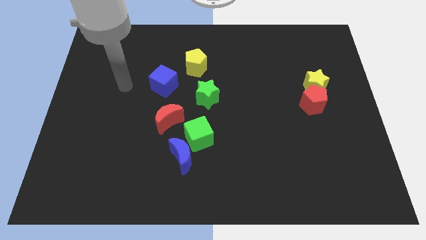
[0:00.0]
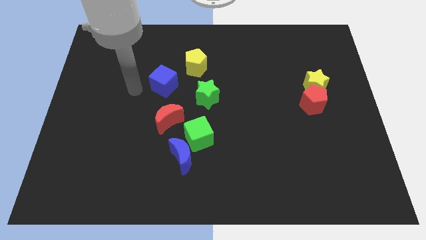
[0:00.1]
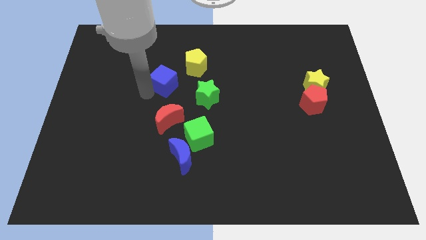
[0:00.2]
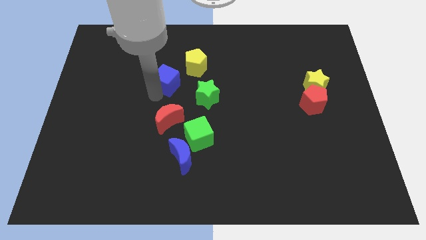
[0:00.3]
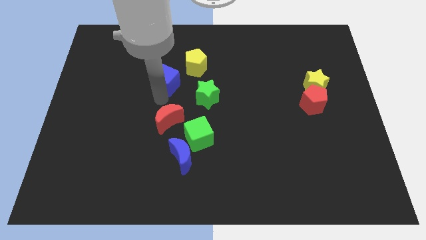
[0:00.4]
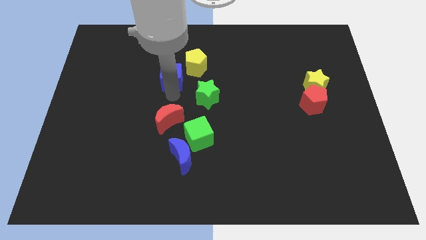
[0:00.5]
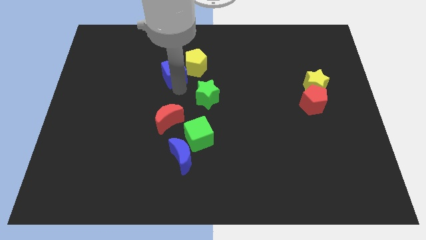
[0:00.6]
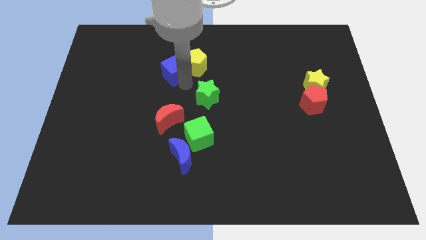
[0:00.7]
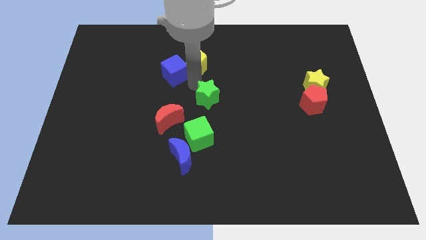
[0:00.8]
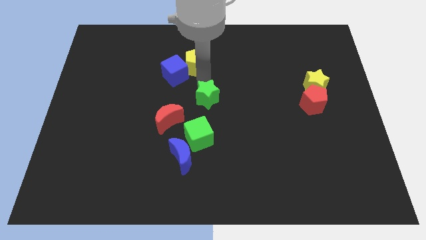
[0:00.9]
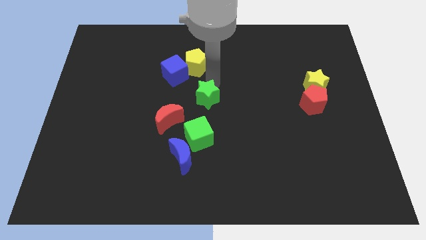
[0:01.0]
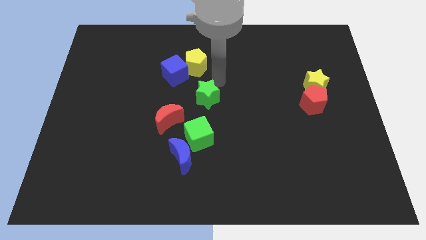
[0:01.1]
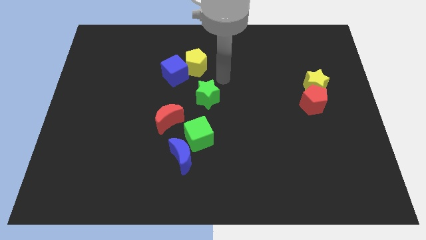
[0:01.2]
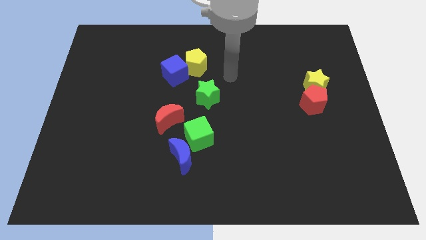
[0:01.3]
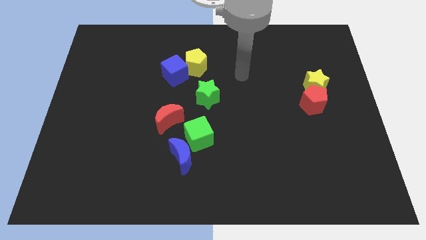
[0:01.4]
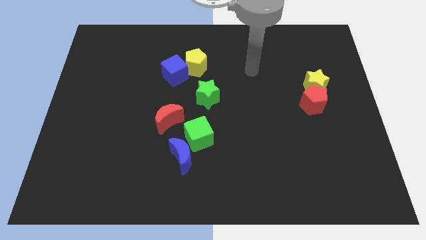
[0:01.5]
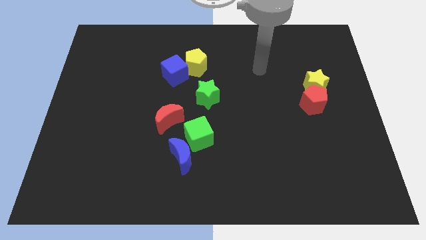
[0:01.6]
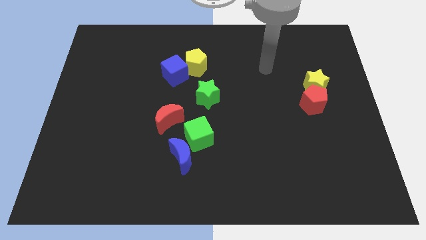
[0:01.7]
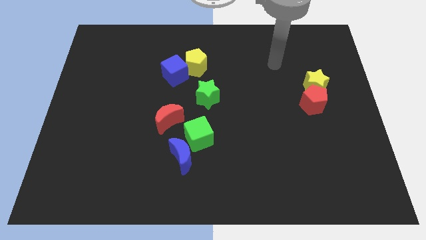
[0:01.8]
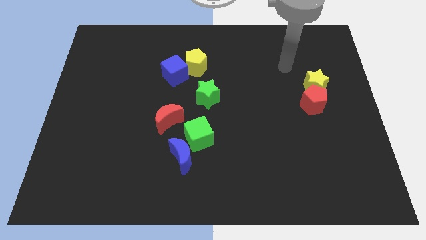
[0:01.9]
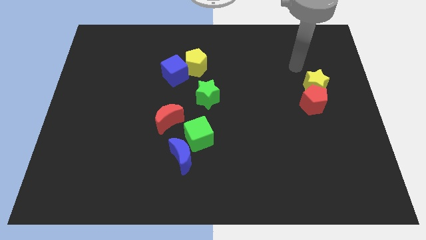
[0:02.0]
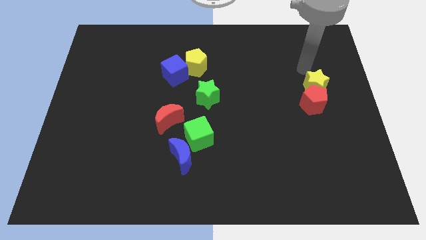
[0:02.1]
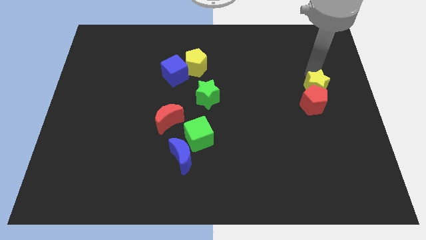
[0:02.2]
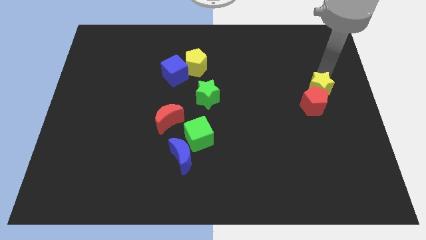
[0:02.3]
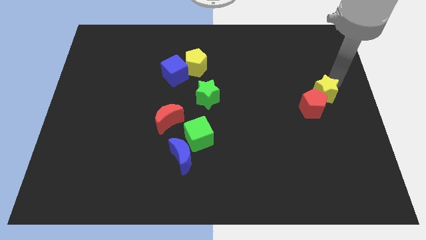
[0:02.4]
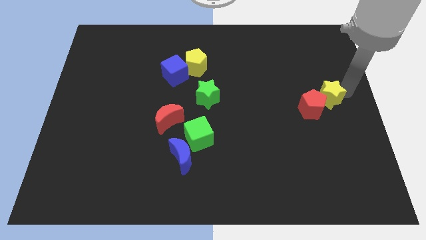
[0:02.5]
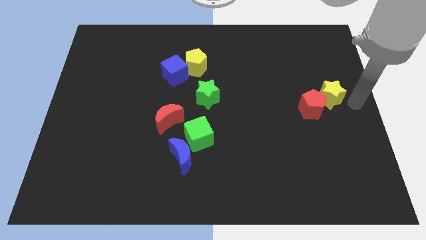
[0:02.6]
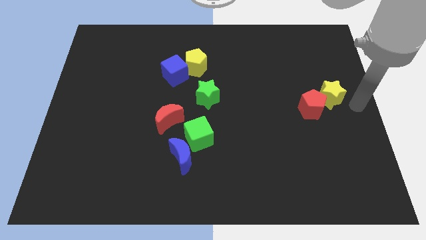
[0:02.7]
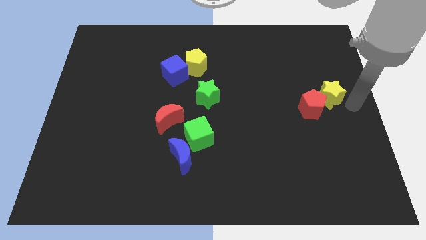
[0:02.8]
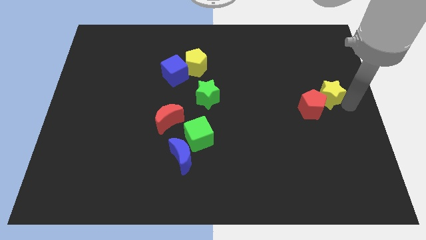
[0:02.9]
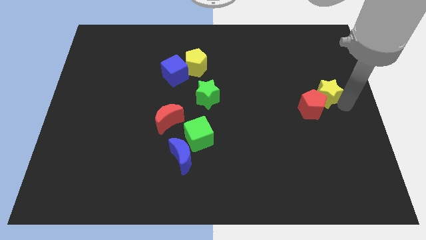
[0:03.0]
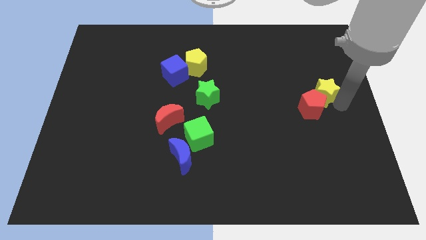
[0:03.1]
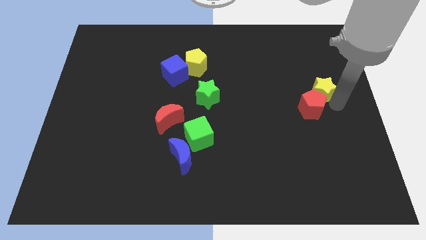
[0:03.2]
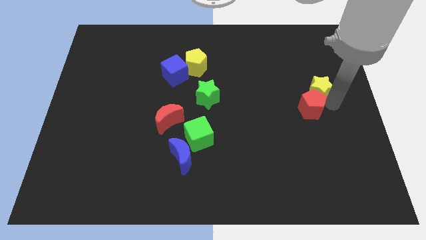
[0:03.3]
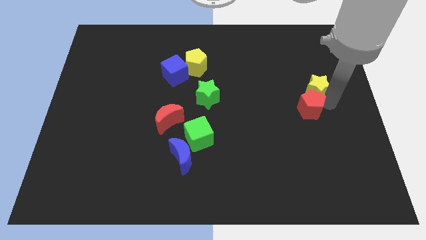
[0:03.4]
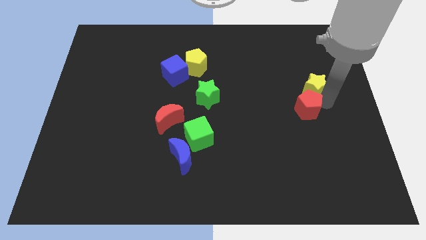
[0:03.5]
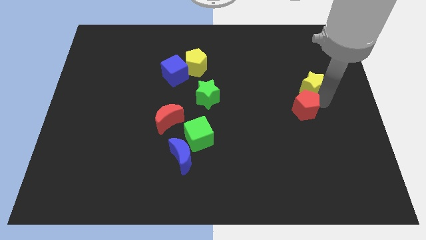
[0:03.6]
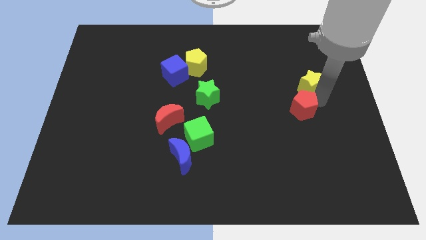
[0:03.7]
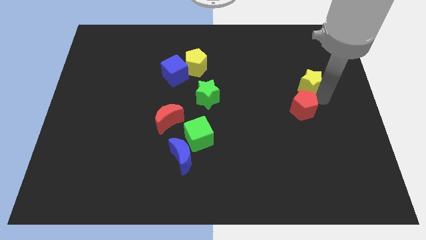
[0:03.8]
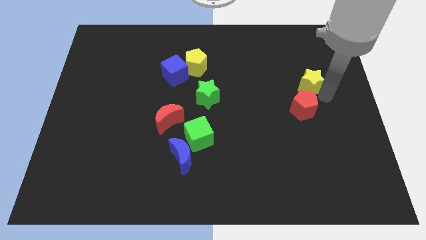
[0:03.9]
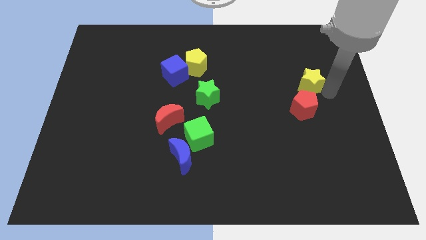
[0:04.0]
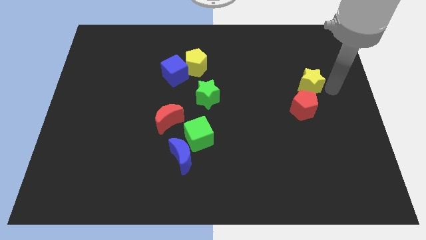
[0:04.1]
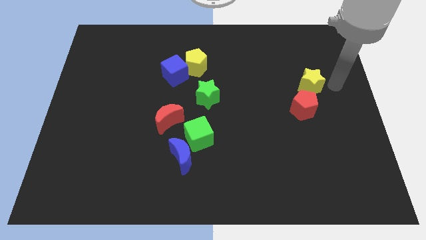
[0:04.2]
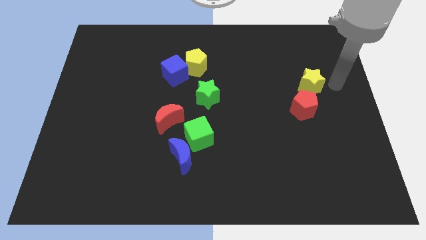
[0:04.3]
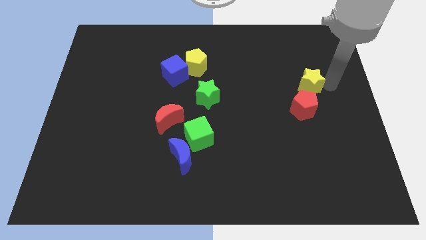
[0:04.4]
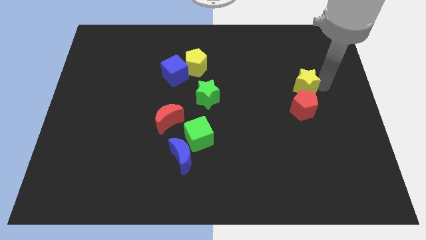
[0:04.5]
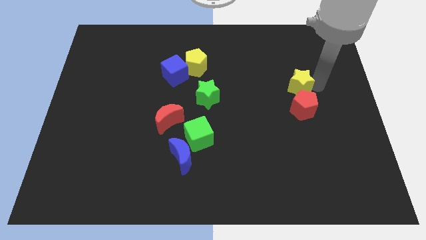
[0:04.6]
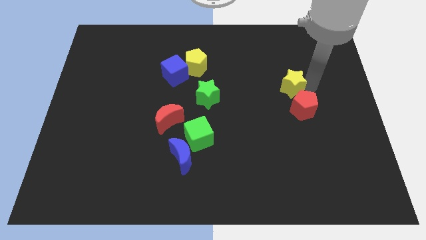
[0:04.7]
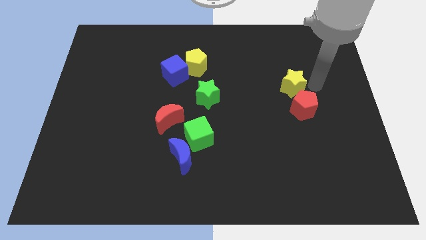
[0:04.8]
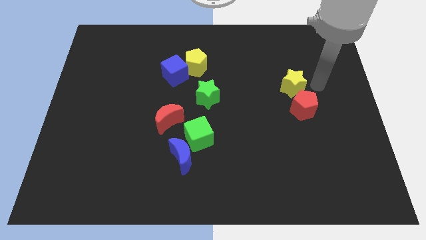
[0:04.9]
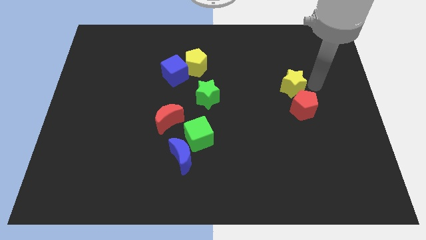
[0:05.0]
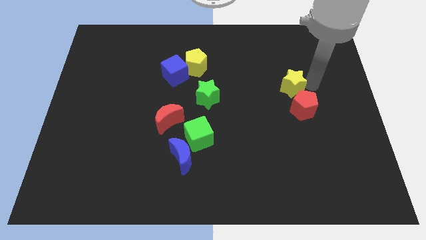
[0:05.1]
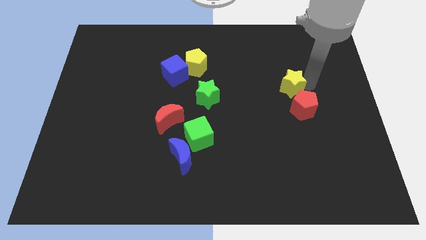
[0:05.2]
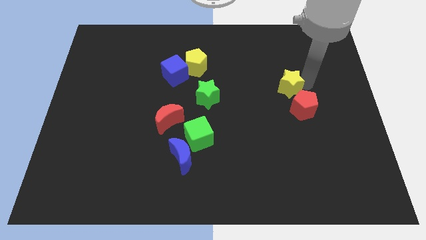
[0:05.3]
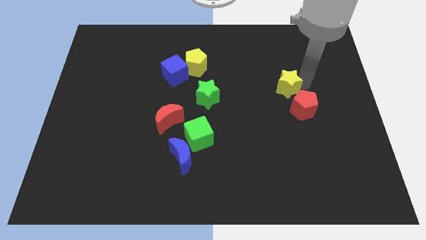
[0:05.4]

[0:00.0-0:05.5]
slightly push the yellow star to the left

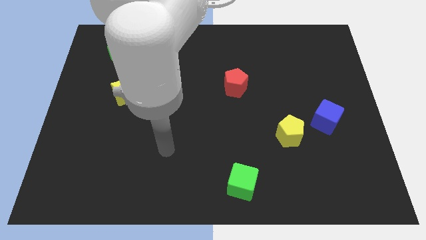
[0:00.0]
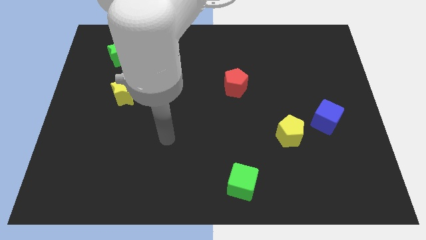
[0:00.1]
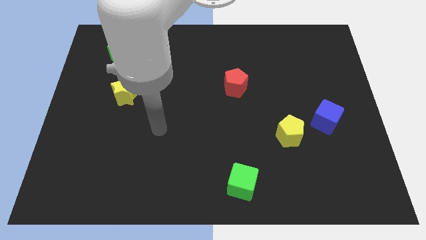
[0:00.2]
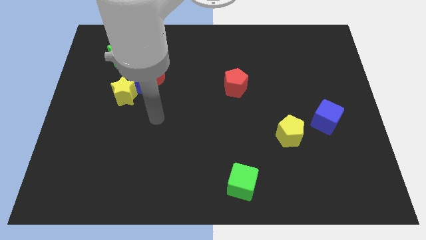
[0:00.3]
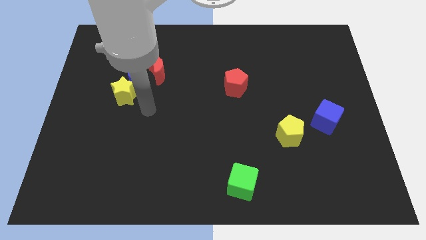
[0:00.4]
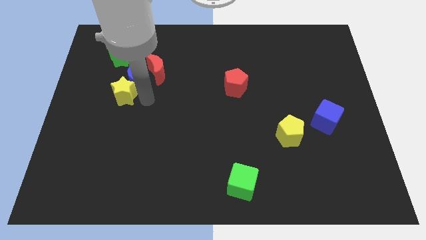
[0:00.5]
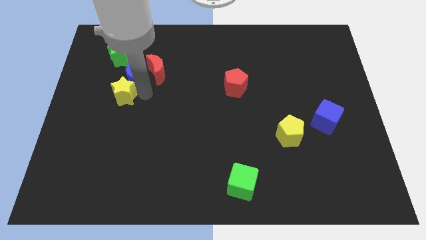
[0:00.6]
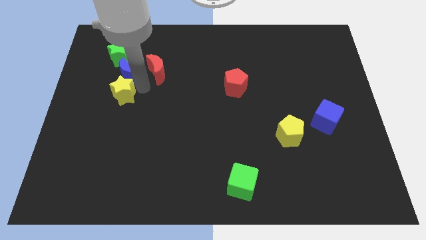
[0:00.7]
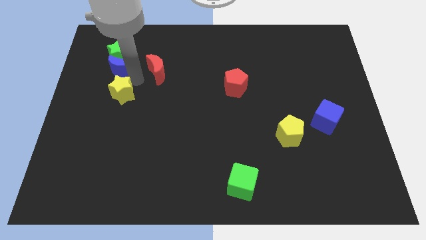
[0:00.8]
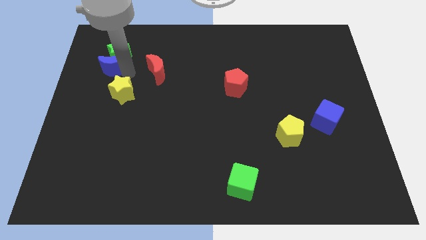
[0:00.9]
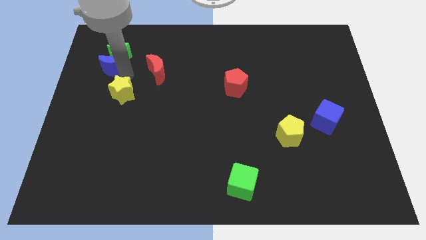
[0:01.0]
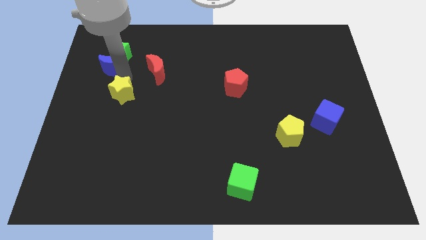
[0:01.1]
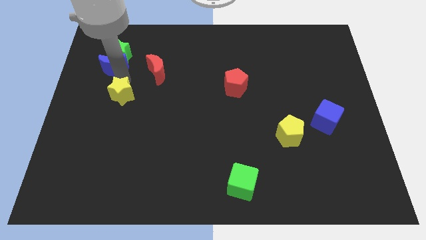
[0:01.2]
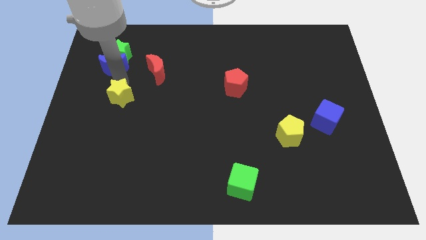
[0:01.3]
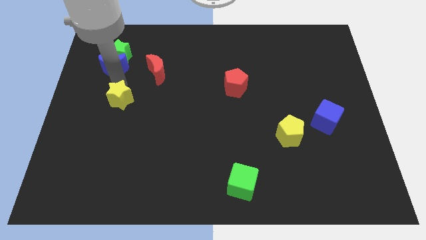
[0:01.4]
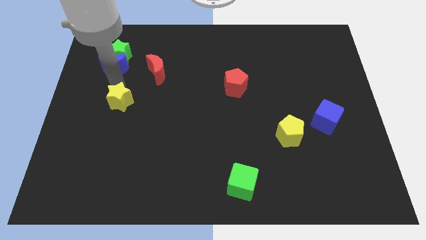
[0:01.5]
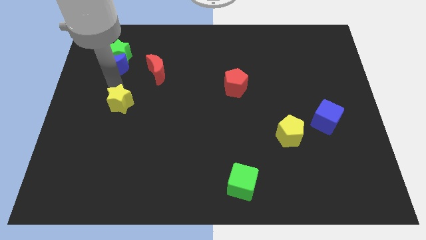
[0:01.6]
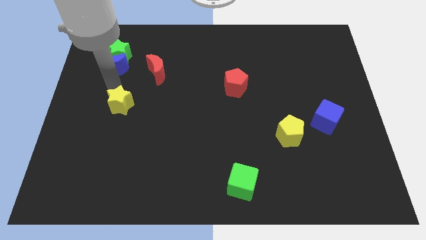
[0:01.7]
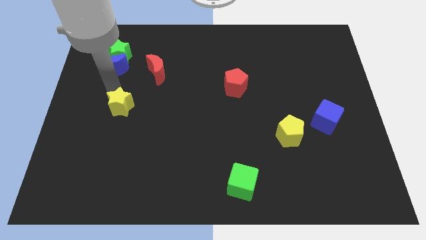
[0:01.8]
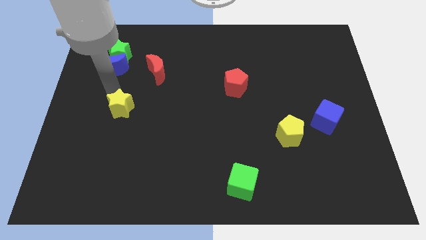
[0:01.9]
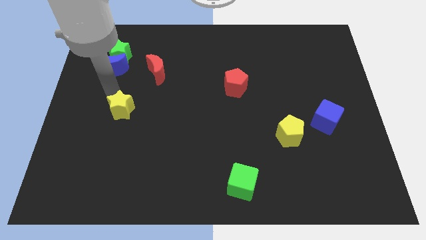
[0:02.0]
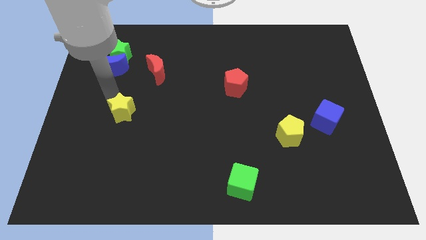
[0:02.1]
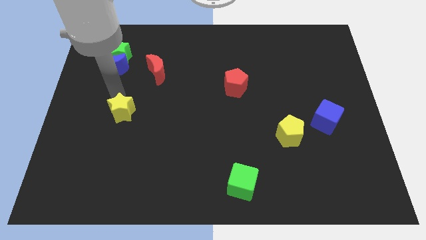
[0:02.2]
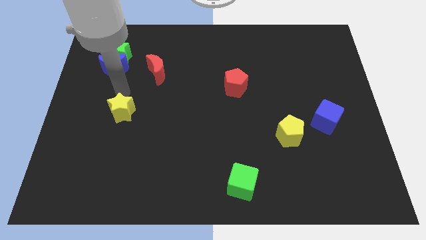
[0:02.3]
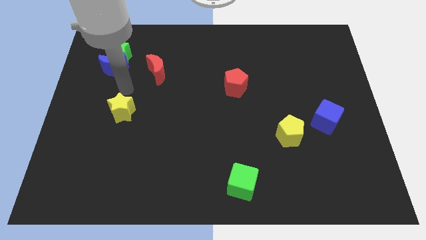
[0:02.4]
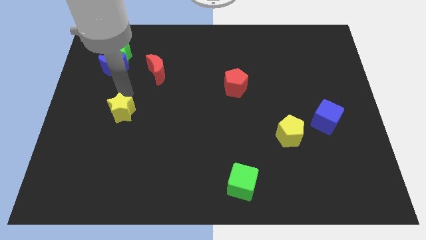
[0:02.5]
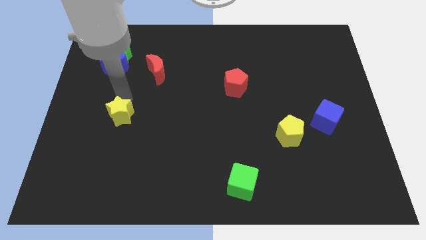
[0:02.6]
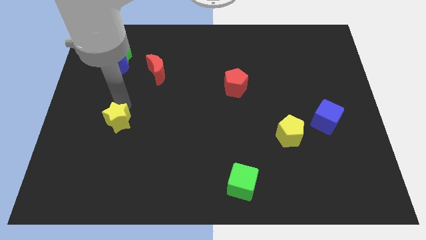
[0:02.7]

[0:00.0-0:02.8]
slightly push the yellow star down
